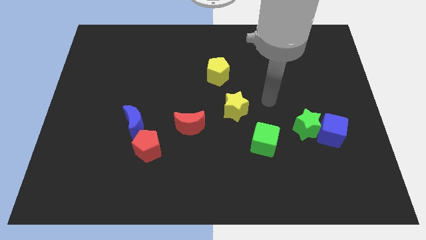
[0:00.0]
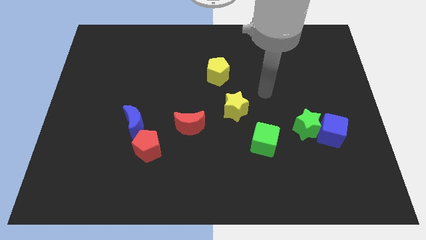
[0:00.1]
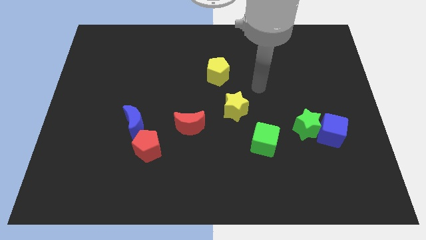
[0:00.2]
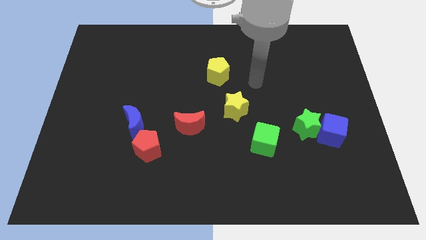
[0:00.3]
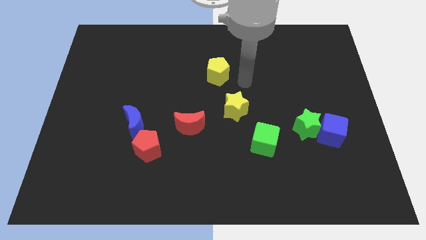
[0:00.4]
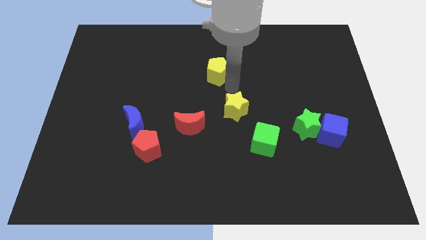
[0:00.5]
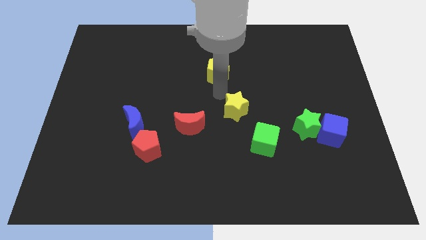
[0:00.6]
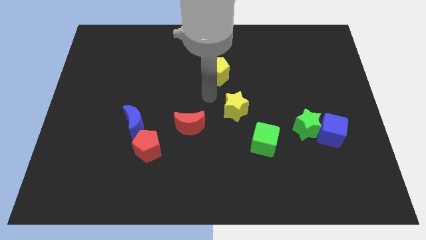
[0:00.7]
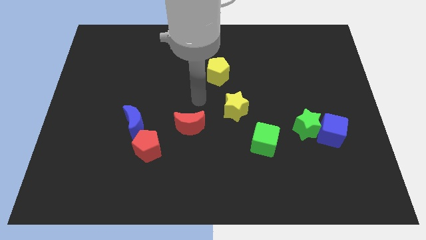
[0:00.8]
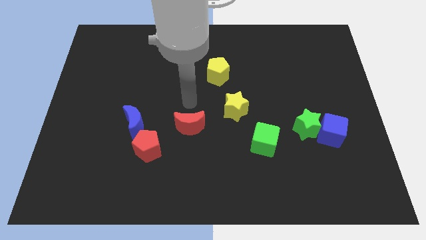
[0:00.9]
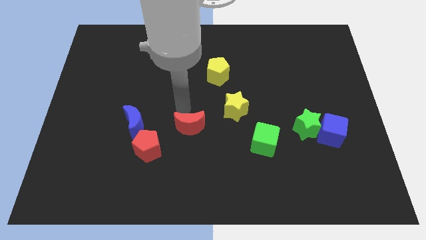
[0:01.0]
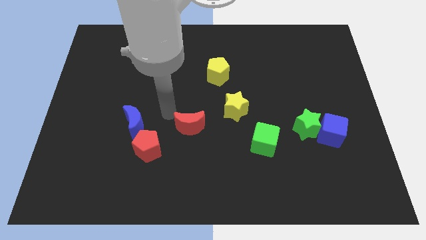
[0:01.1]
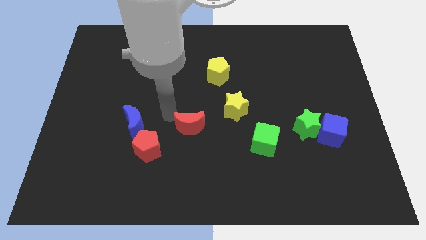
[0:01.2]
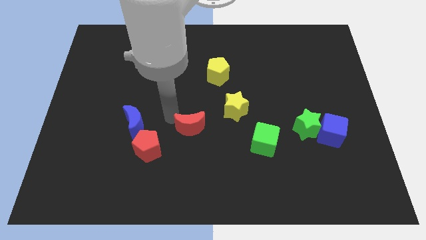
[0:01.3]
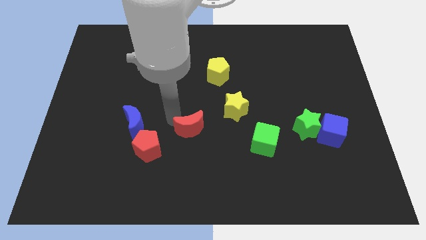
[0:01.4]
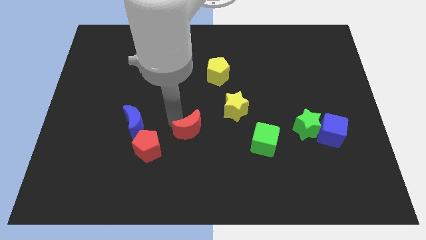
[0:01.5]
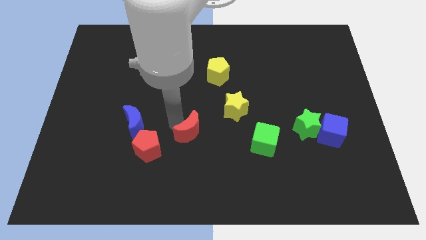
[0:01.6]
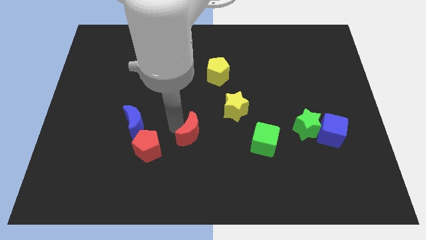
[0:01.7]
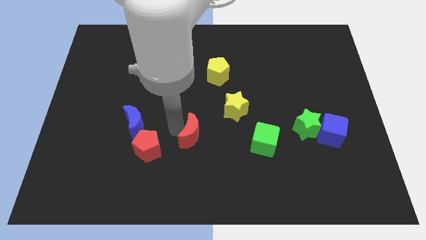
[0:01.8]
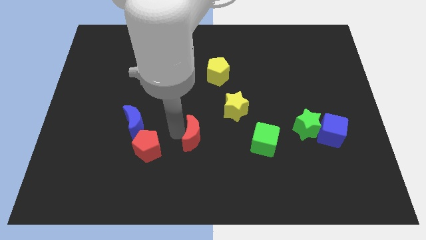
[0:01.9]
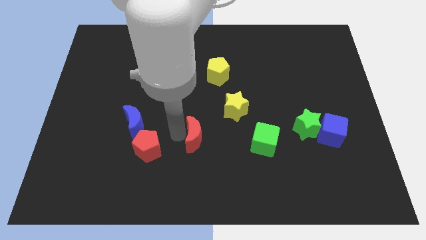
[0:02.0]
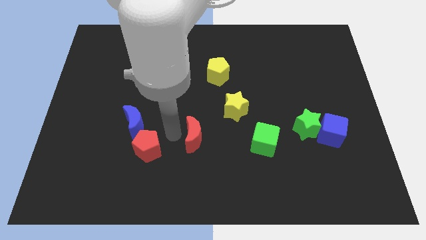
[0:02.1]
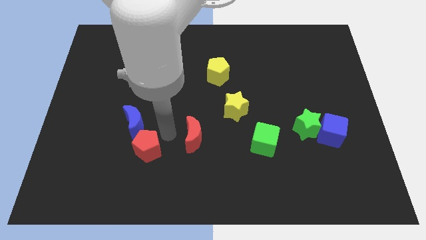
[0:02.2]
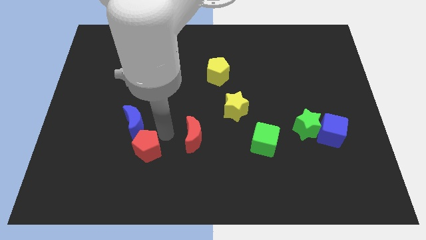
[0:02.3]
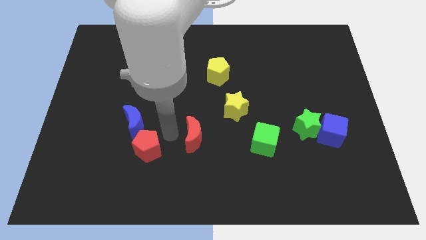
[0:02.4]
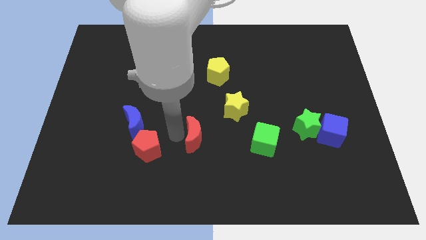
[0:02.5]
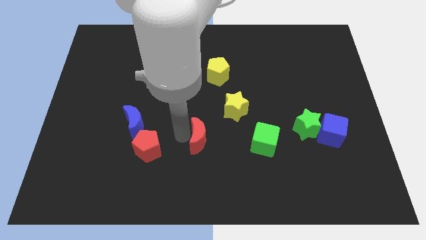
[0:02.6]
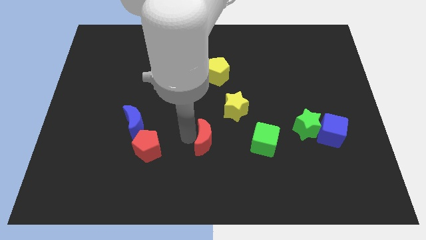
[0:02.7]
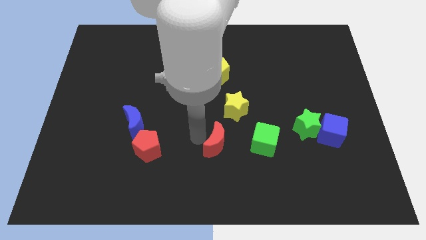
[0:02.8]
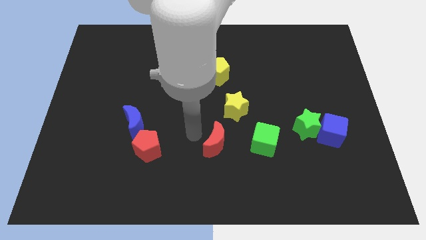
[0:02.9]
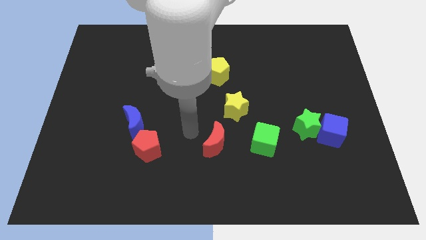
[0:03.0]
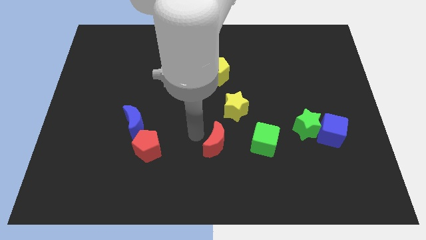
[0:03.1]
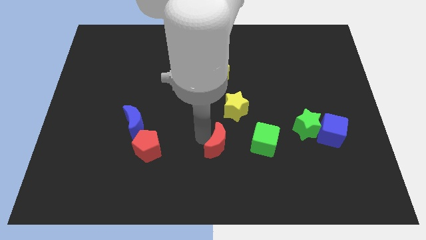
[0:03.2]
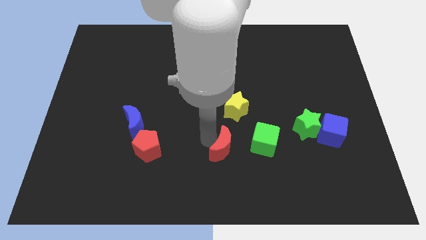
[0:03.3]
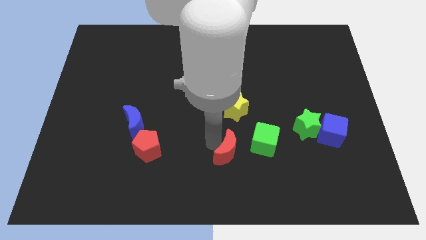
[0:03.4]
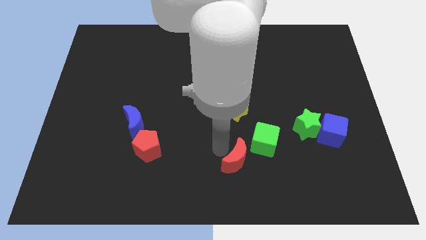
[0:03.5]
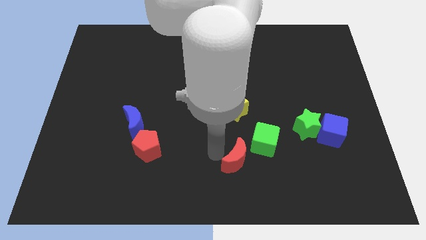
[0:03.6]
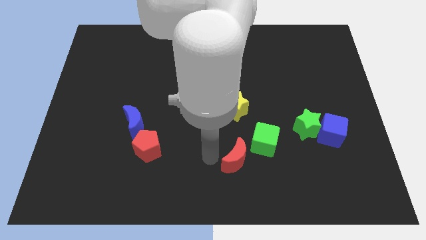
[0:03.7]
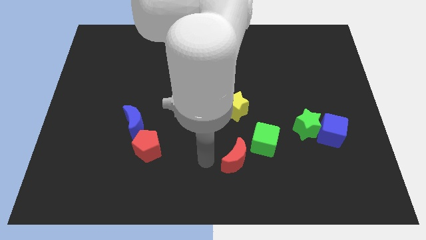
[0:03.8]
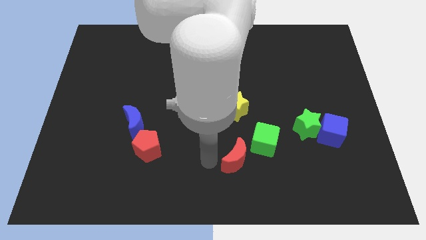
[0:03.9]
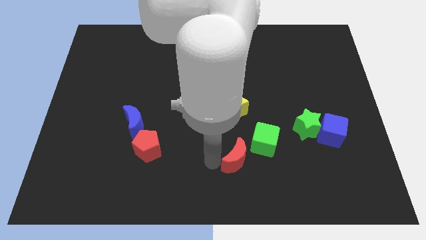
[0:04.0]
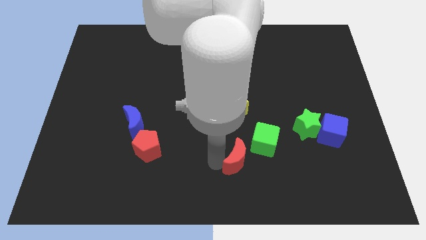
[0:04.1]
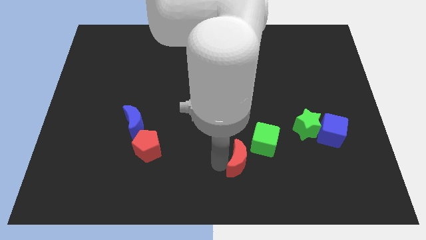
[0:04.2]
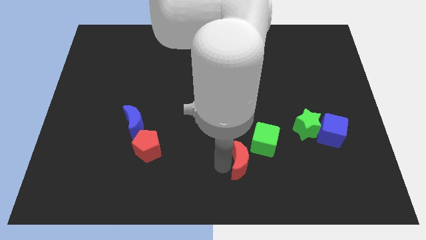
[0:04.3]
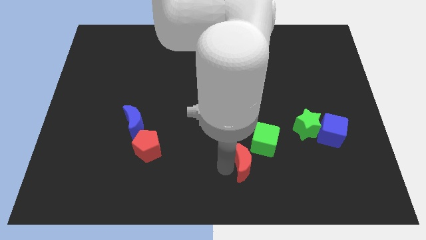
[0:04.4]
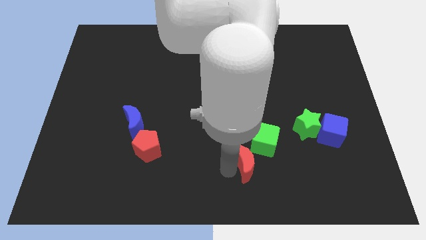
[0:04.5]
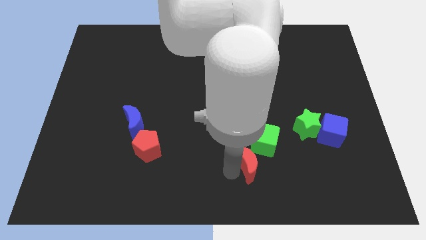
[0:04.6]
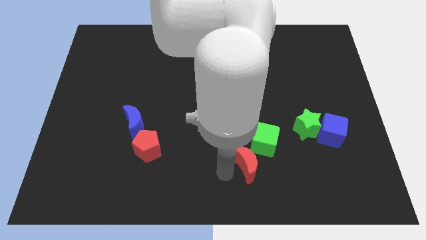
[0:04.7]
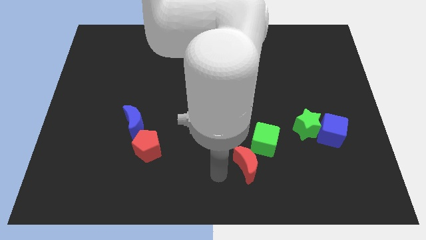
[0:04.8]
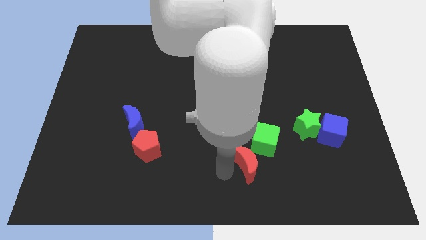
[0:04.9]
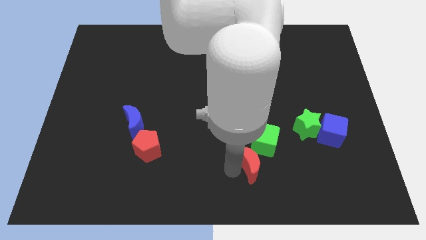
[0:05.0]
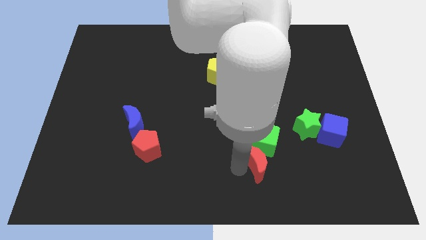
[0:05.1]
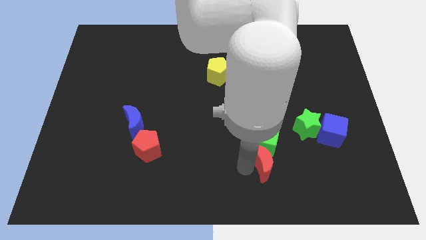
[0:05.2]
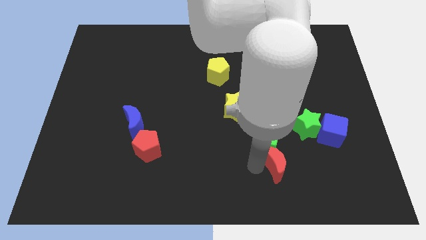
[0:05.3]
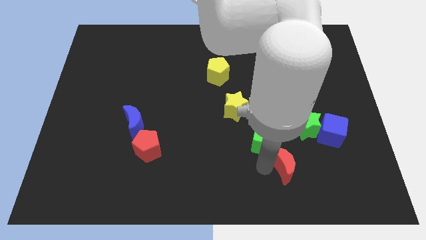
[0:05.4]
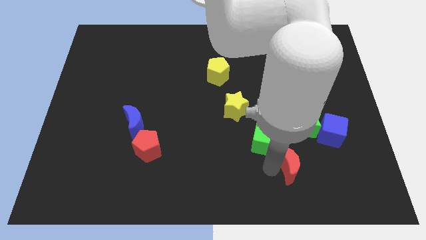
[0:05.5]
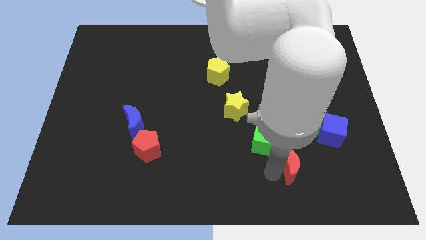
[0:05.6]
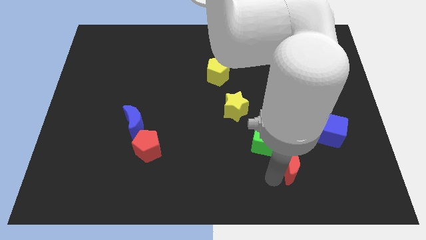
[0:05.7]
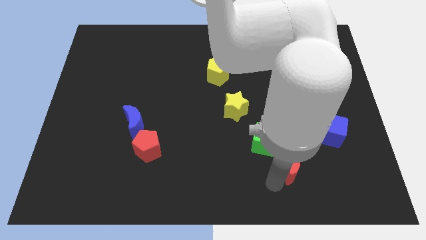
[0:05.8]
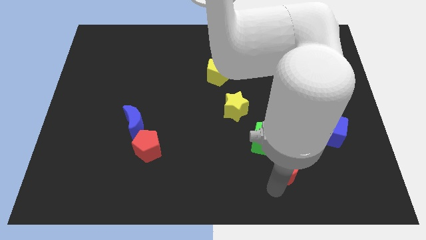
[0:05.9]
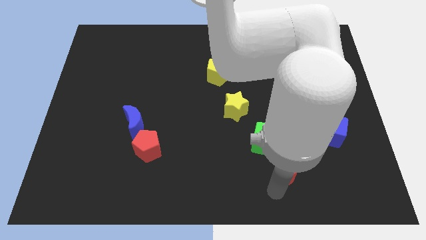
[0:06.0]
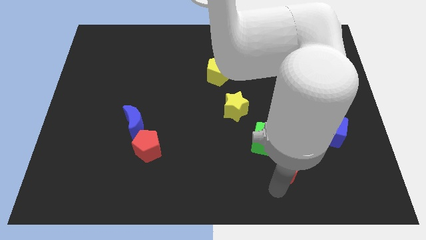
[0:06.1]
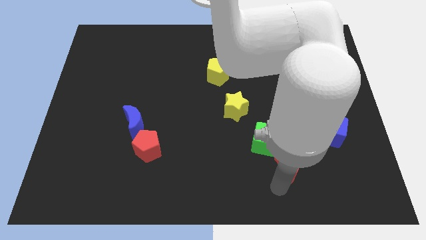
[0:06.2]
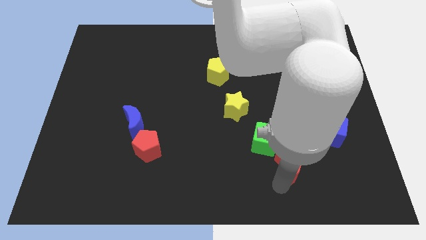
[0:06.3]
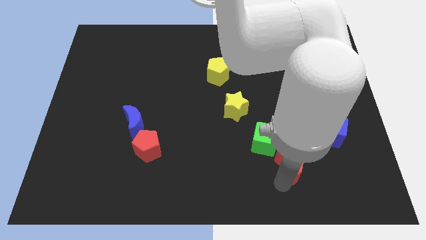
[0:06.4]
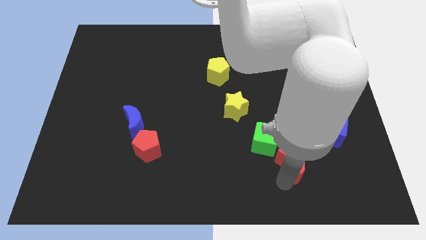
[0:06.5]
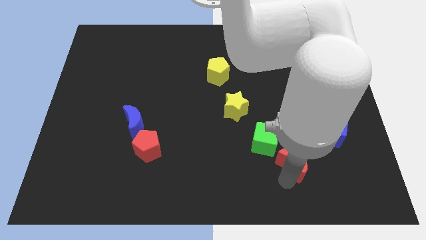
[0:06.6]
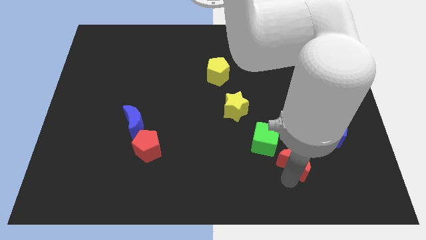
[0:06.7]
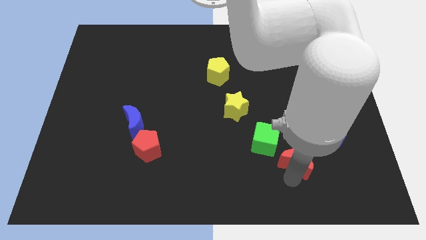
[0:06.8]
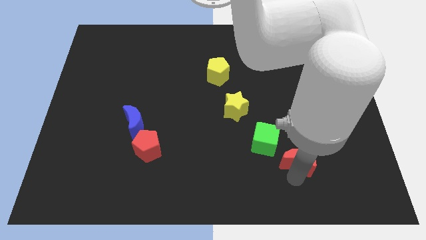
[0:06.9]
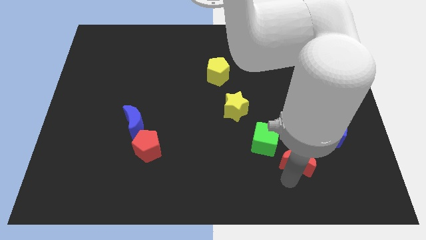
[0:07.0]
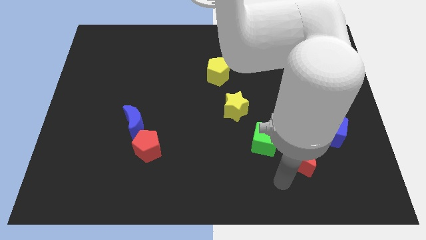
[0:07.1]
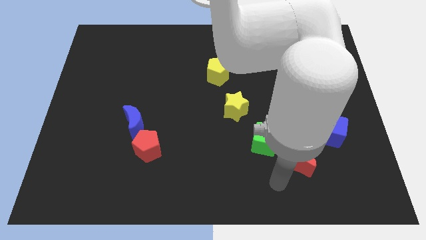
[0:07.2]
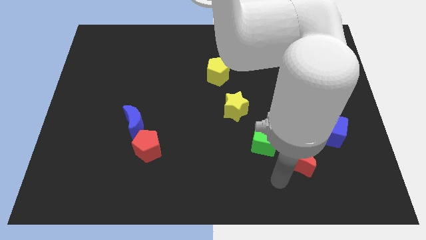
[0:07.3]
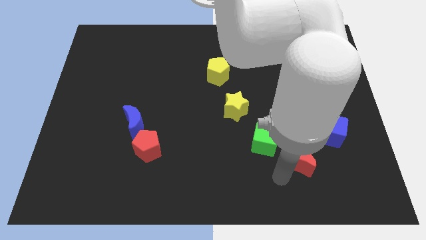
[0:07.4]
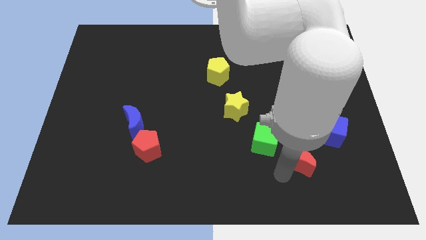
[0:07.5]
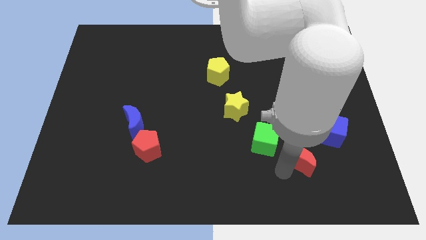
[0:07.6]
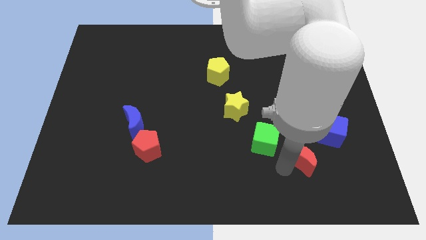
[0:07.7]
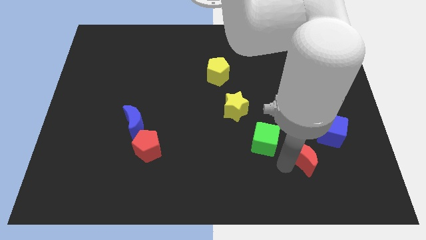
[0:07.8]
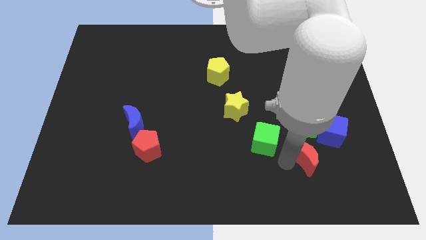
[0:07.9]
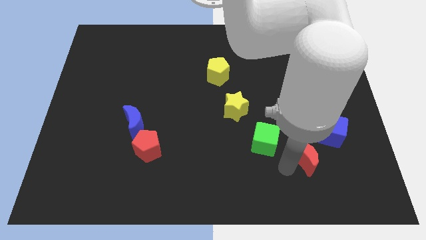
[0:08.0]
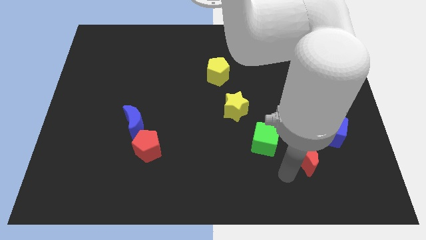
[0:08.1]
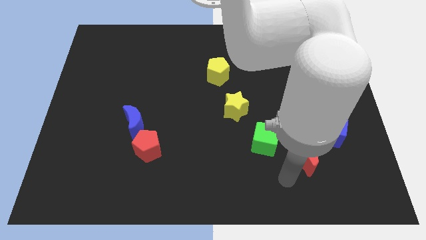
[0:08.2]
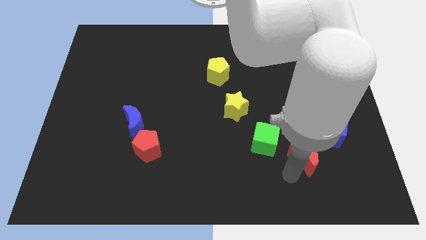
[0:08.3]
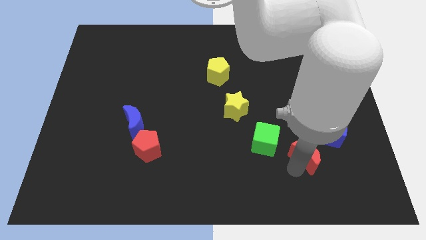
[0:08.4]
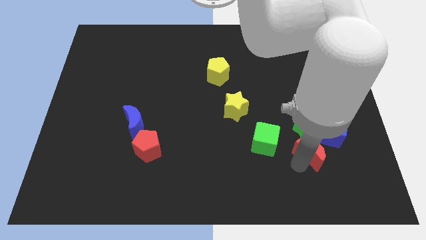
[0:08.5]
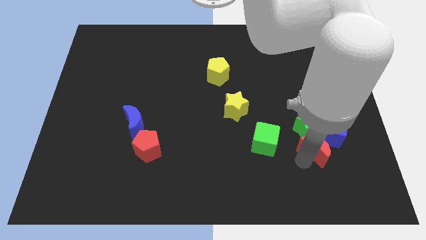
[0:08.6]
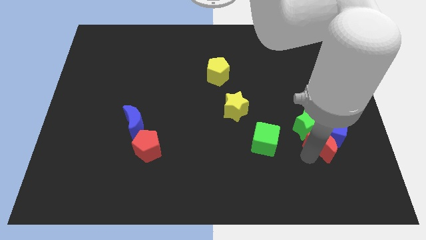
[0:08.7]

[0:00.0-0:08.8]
slide the red moon next to the blue cube
